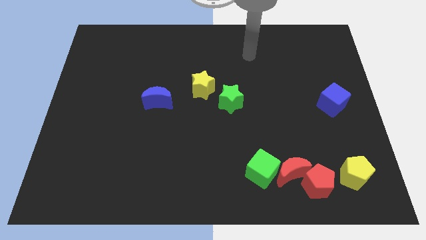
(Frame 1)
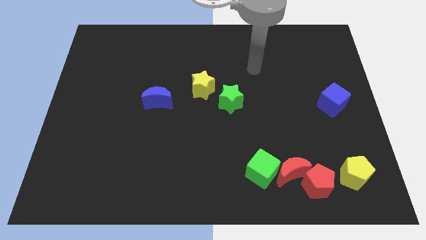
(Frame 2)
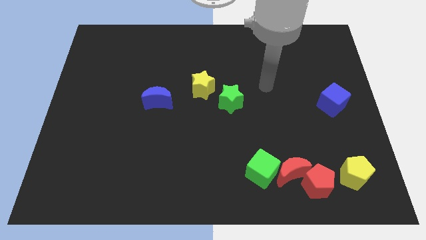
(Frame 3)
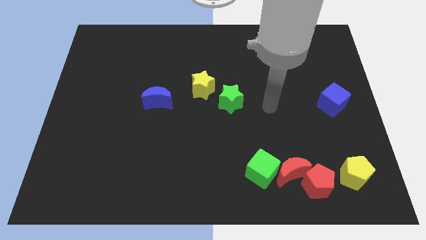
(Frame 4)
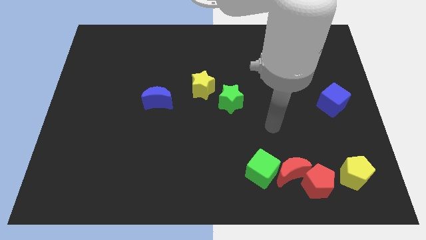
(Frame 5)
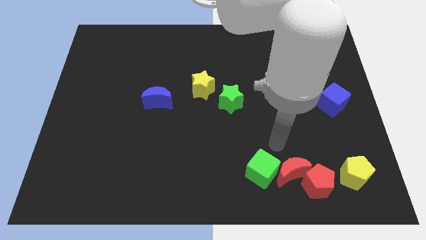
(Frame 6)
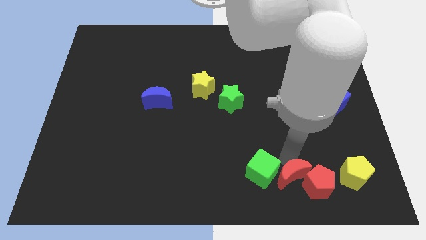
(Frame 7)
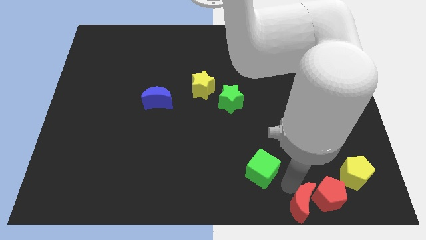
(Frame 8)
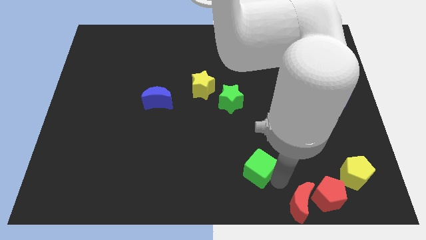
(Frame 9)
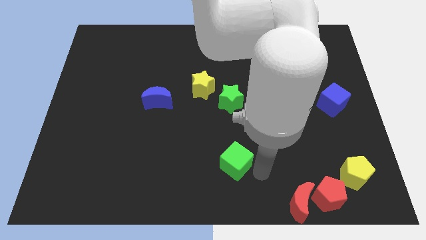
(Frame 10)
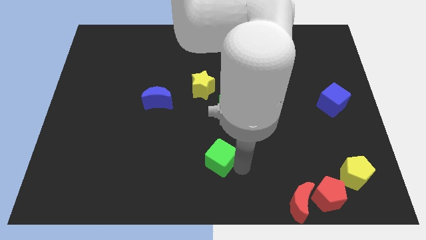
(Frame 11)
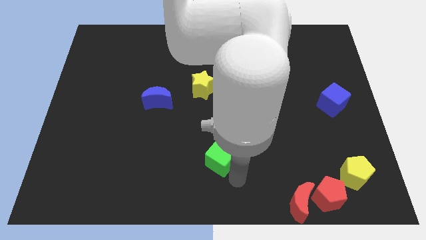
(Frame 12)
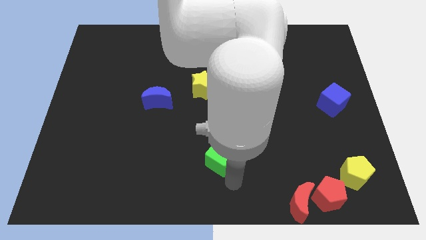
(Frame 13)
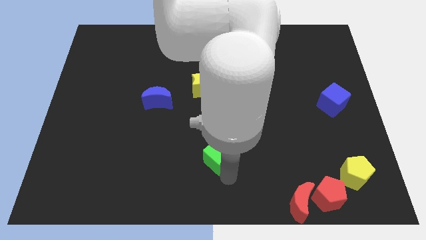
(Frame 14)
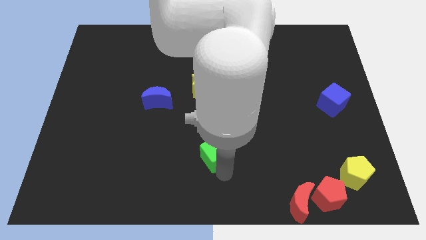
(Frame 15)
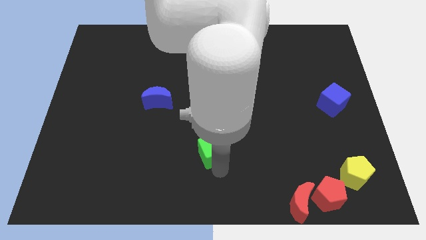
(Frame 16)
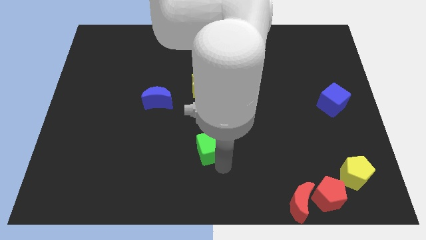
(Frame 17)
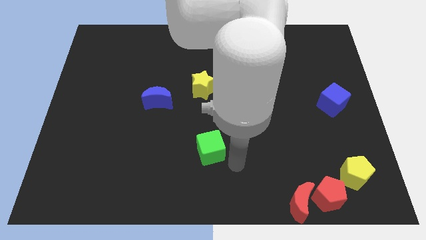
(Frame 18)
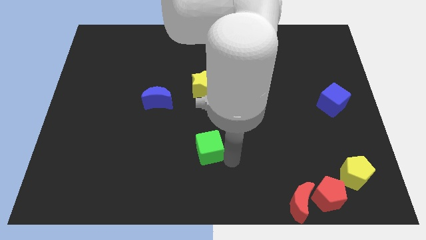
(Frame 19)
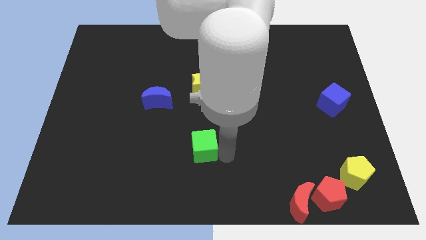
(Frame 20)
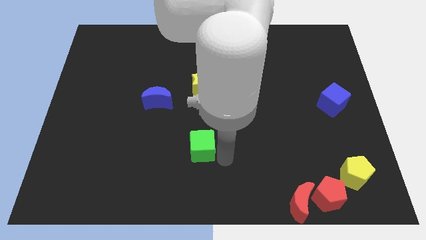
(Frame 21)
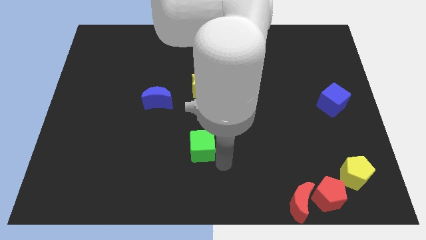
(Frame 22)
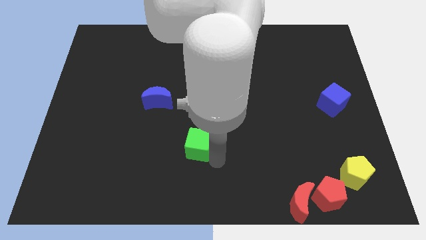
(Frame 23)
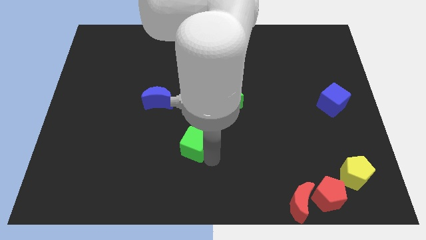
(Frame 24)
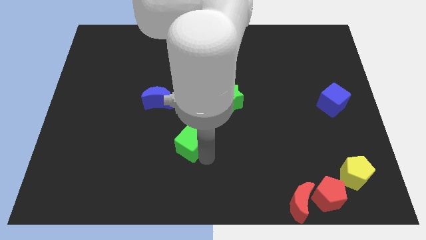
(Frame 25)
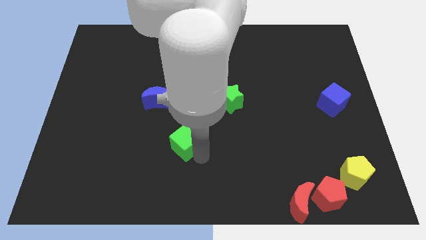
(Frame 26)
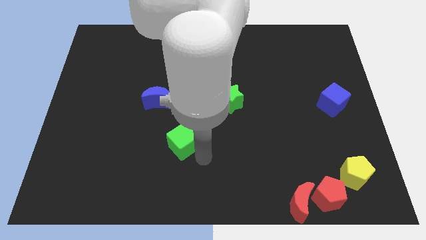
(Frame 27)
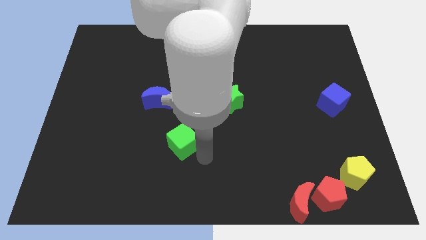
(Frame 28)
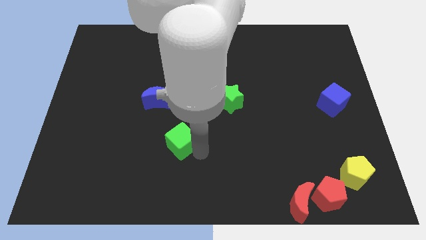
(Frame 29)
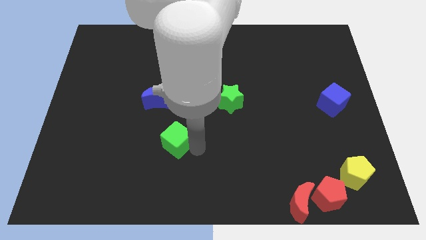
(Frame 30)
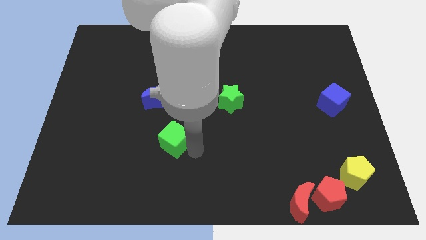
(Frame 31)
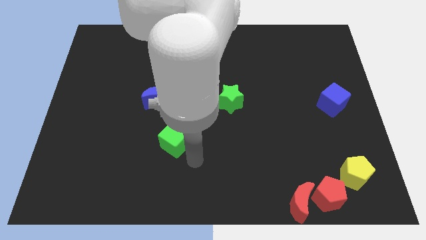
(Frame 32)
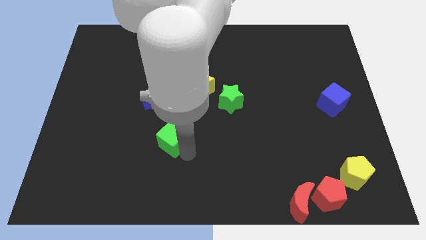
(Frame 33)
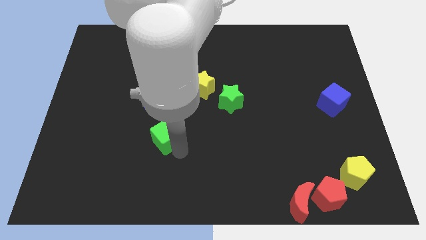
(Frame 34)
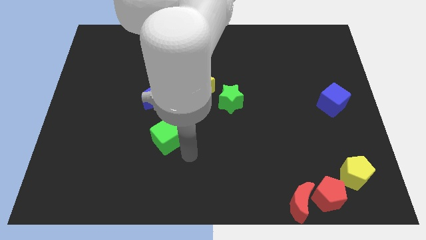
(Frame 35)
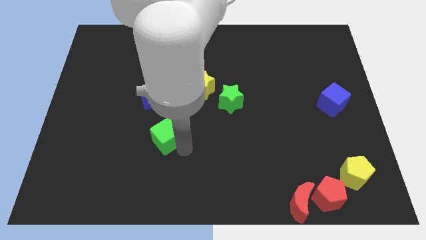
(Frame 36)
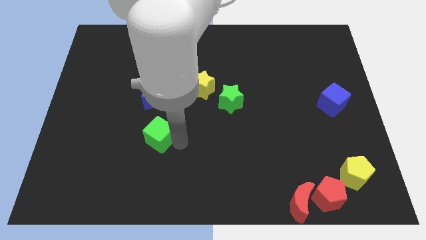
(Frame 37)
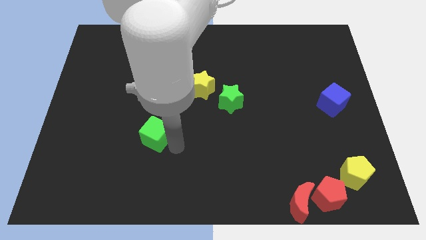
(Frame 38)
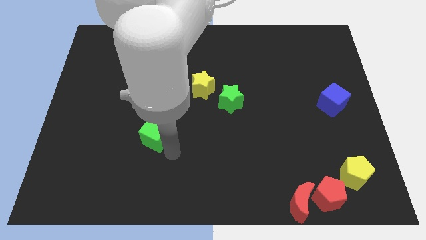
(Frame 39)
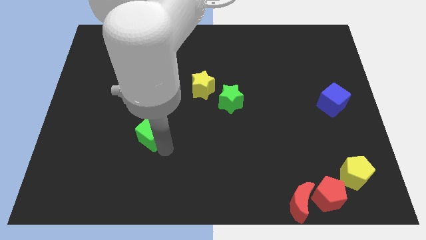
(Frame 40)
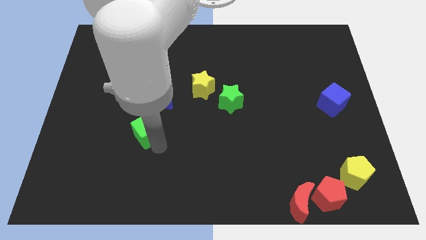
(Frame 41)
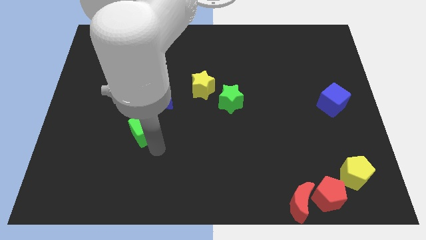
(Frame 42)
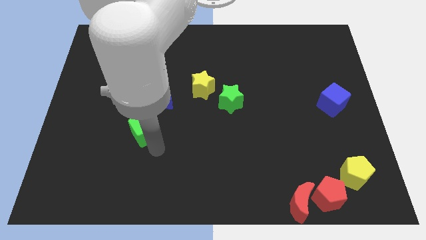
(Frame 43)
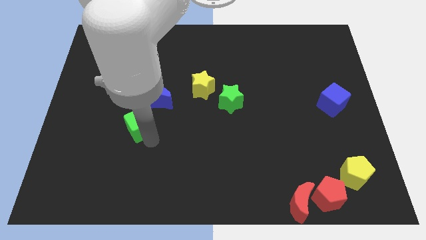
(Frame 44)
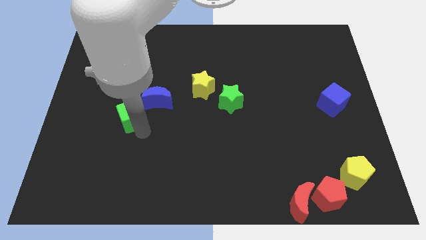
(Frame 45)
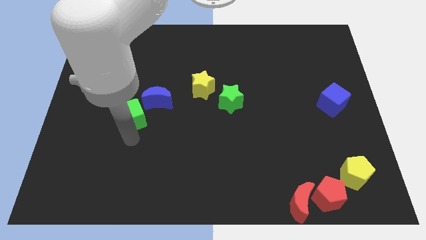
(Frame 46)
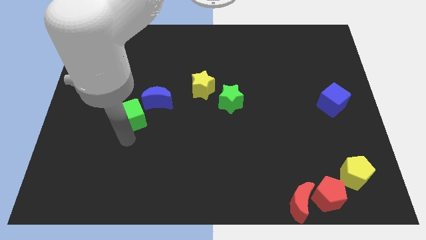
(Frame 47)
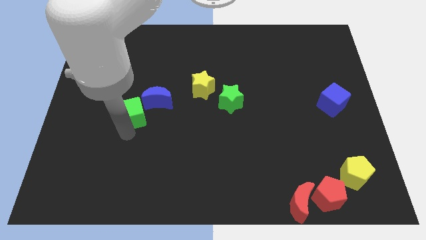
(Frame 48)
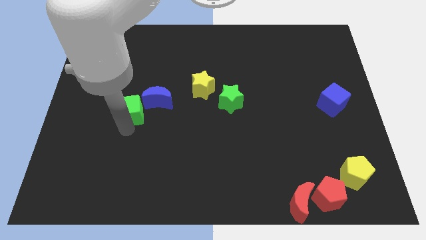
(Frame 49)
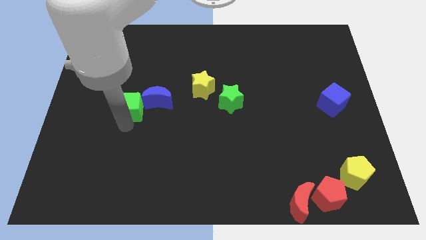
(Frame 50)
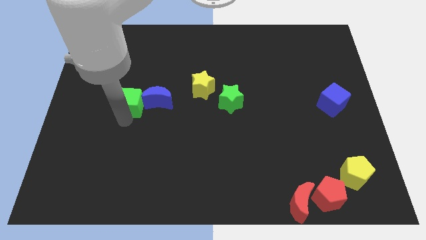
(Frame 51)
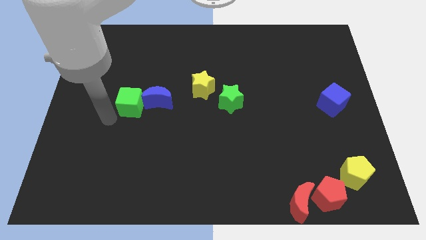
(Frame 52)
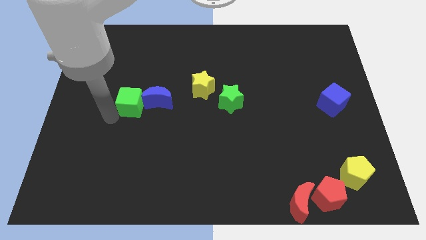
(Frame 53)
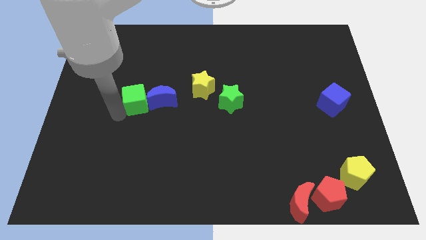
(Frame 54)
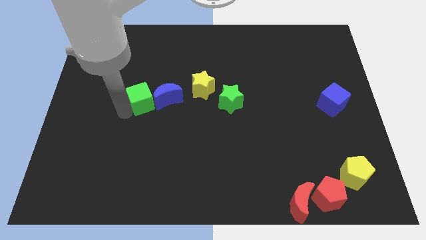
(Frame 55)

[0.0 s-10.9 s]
move the green cube to the left side of the yellow star

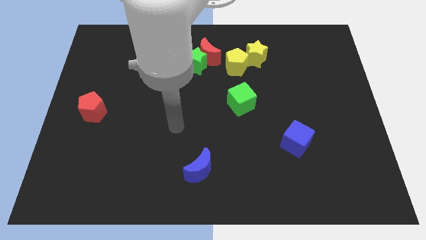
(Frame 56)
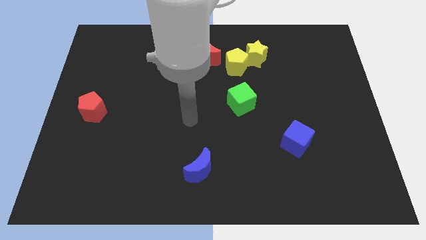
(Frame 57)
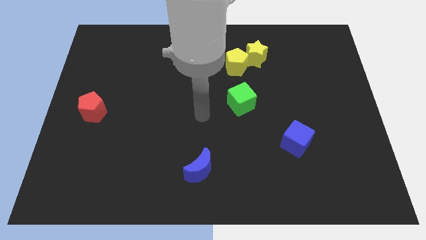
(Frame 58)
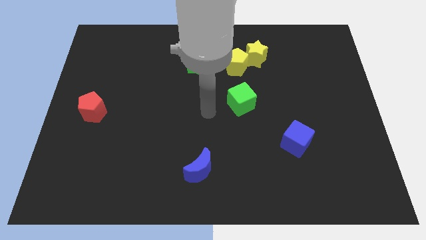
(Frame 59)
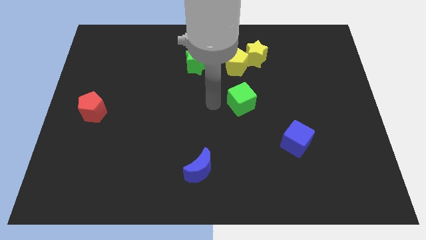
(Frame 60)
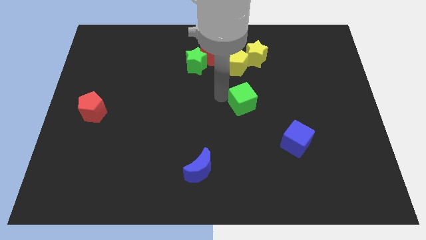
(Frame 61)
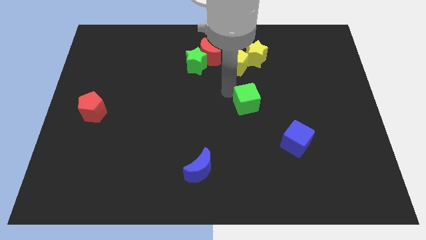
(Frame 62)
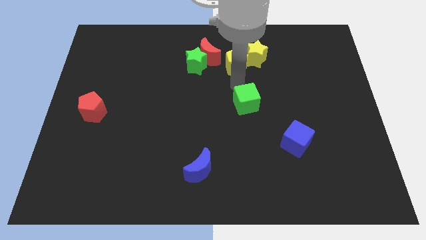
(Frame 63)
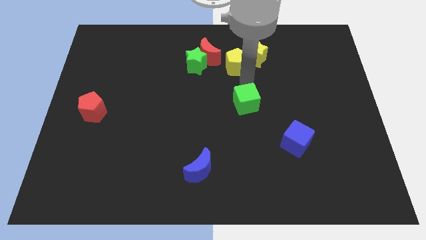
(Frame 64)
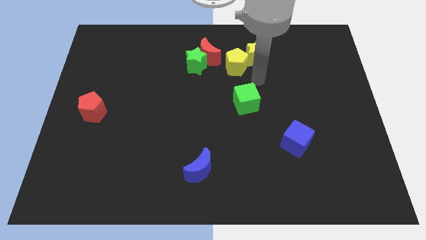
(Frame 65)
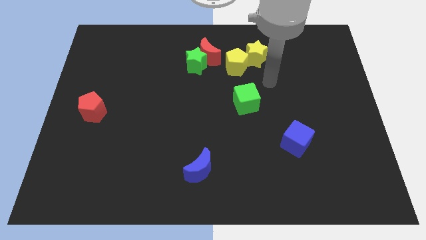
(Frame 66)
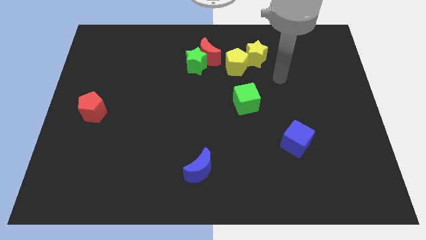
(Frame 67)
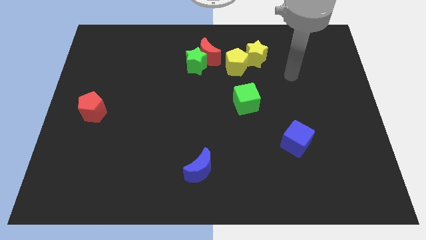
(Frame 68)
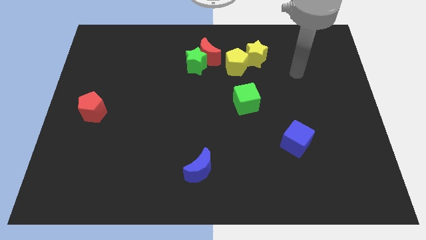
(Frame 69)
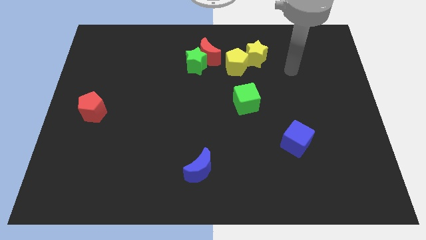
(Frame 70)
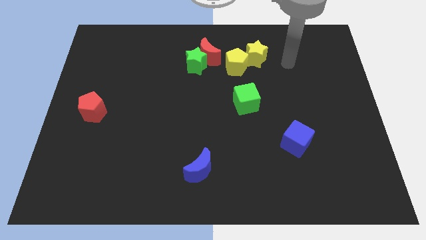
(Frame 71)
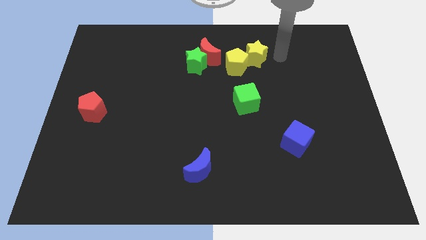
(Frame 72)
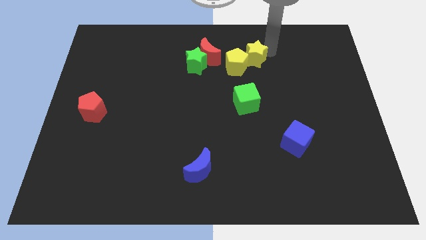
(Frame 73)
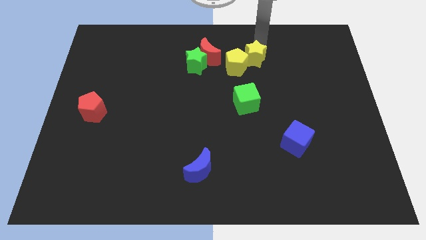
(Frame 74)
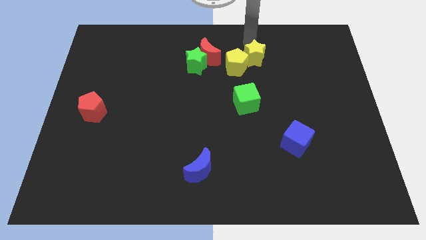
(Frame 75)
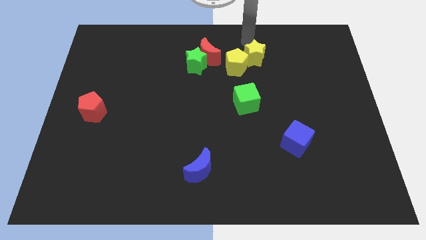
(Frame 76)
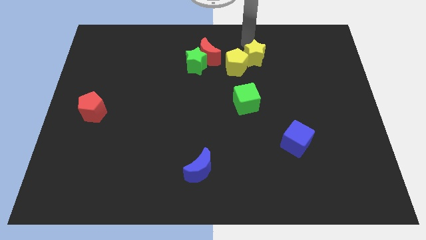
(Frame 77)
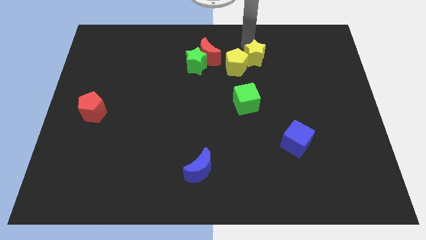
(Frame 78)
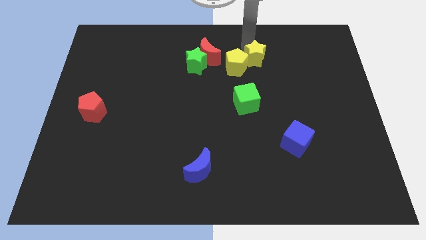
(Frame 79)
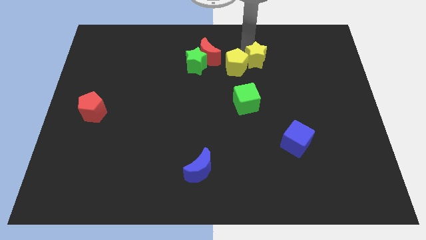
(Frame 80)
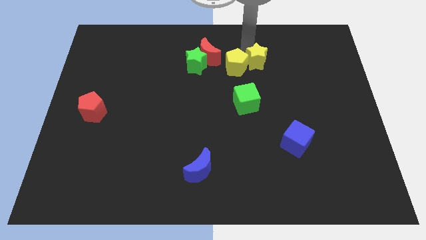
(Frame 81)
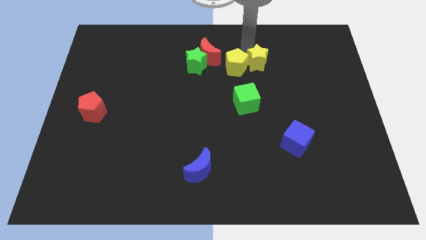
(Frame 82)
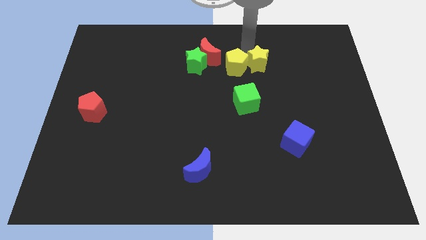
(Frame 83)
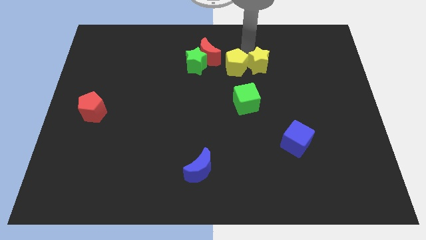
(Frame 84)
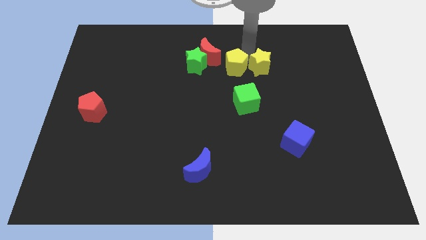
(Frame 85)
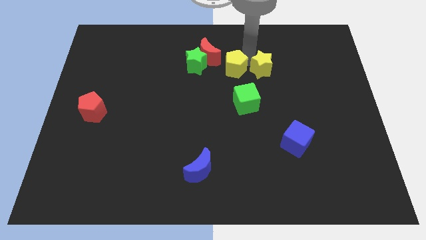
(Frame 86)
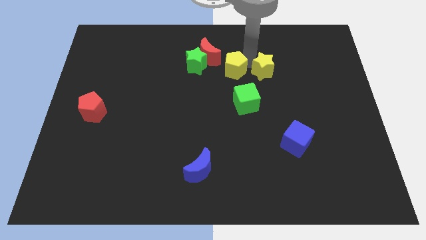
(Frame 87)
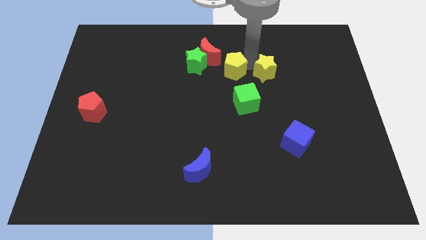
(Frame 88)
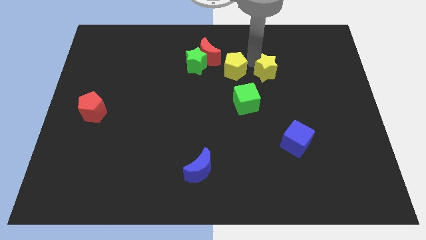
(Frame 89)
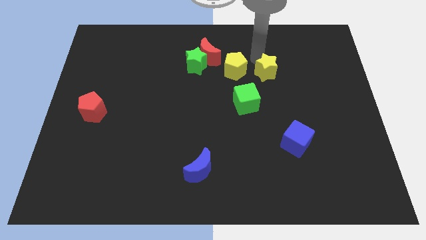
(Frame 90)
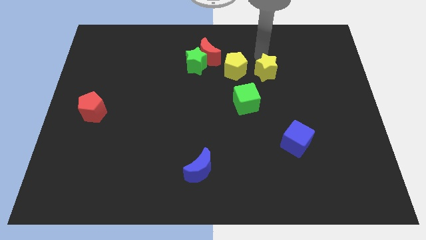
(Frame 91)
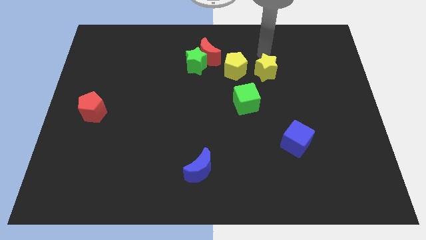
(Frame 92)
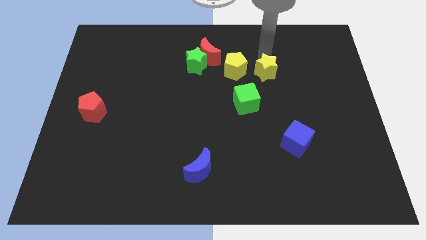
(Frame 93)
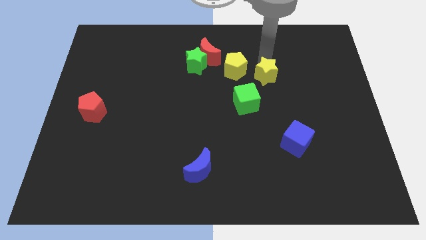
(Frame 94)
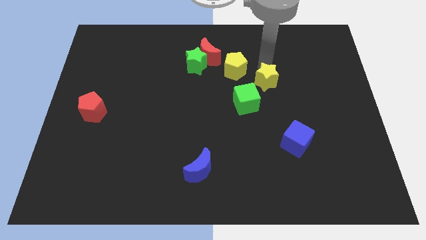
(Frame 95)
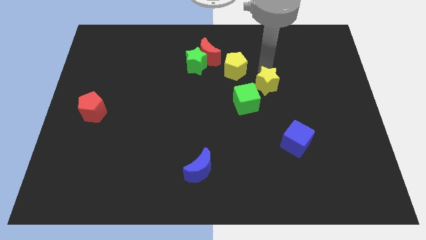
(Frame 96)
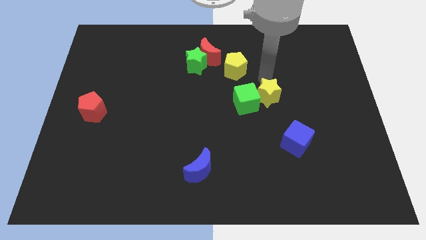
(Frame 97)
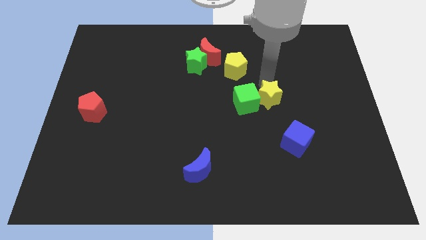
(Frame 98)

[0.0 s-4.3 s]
slide the yellow star diagonally down and to the right of the green cube
